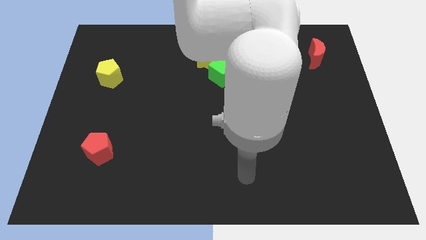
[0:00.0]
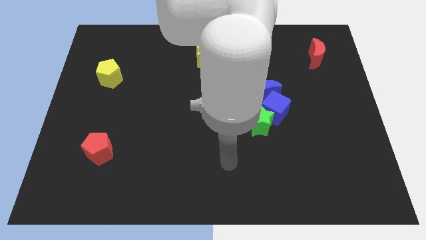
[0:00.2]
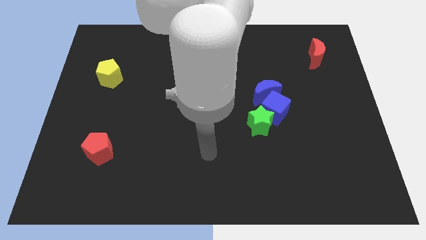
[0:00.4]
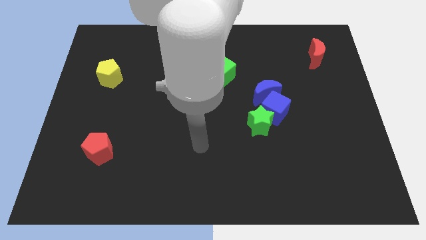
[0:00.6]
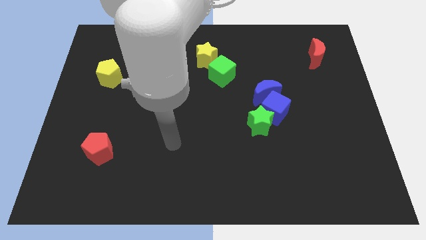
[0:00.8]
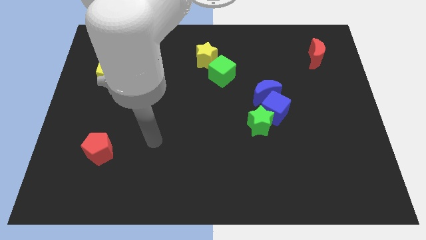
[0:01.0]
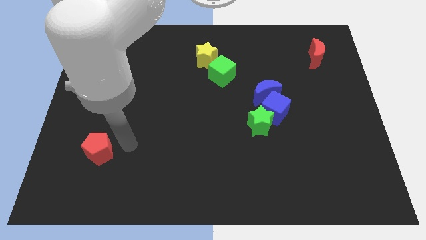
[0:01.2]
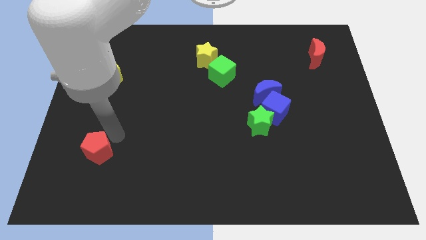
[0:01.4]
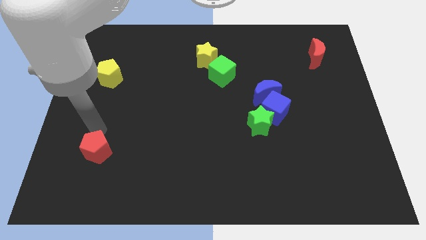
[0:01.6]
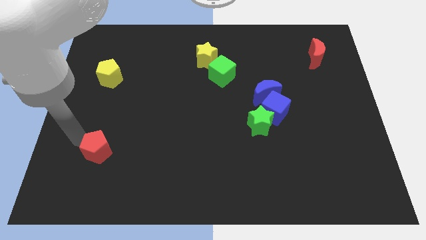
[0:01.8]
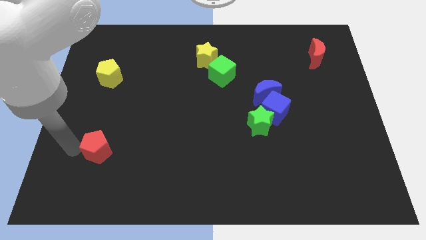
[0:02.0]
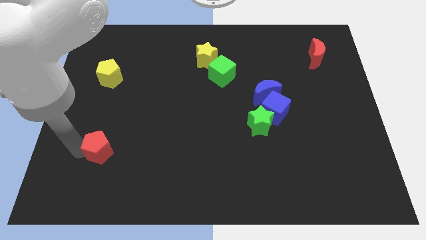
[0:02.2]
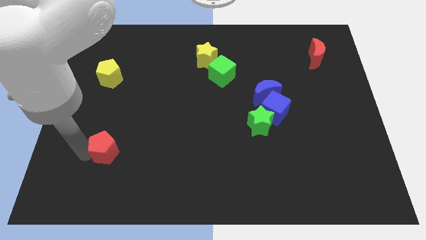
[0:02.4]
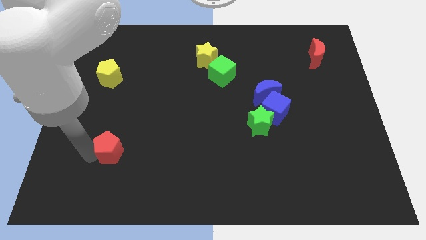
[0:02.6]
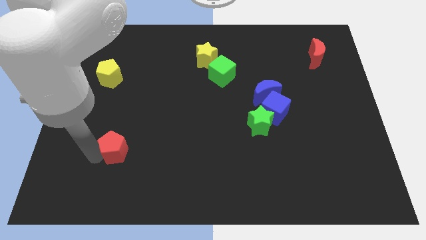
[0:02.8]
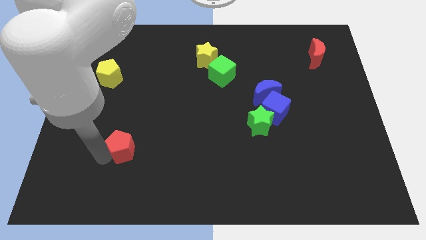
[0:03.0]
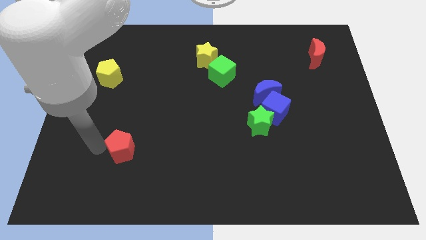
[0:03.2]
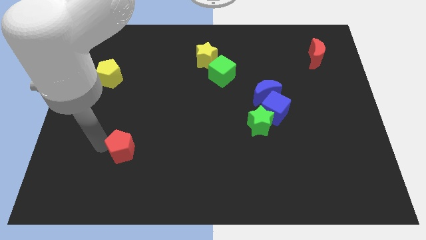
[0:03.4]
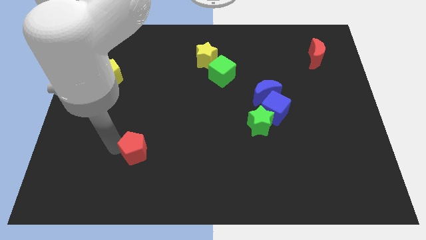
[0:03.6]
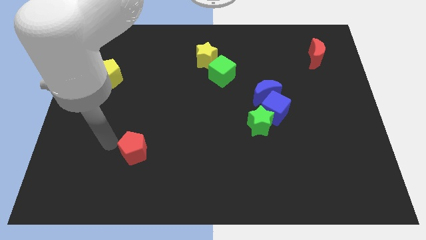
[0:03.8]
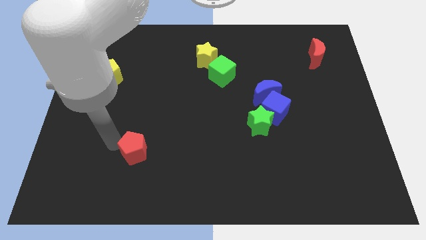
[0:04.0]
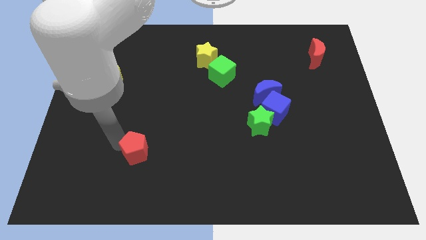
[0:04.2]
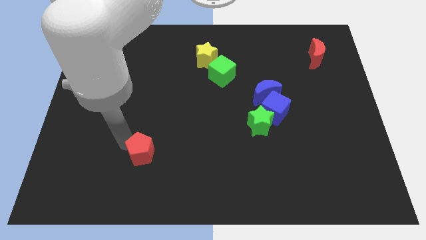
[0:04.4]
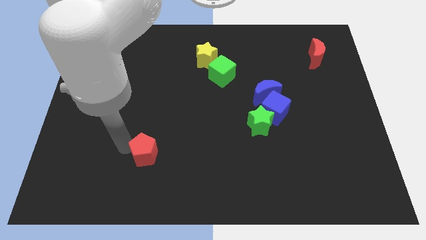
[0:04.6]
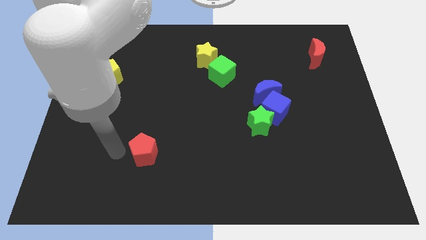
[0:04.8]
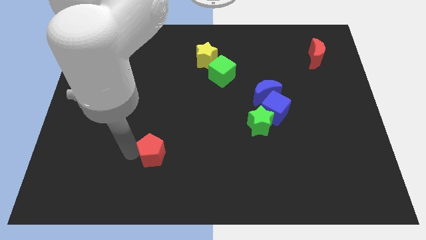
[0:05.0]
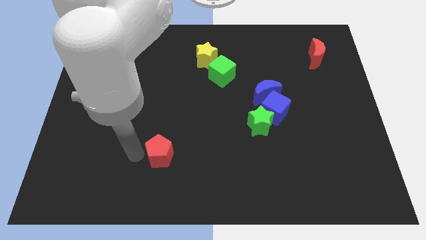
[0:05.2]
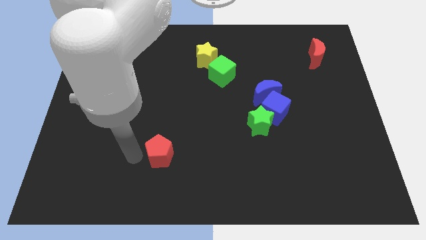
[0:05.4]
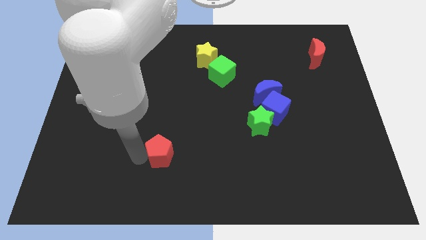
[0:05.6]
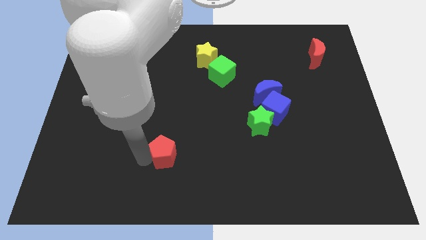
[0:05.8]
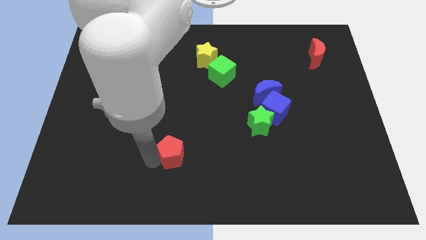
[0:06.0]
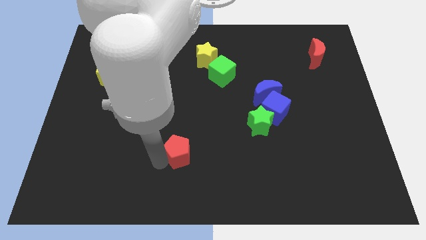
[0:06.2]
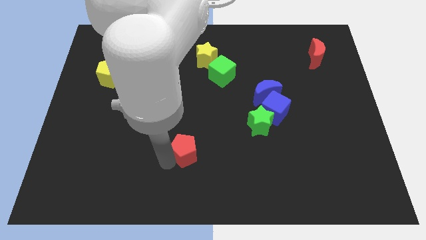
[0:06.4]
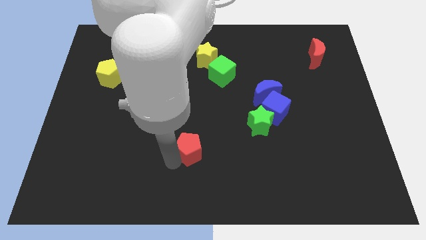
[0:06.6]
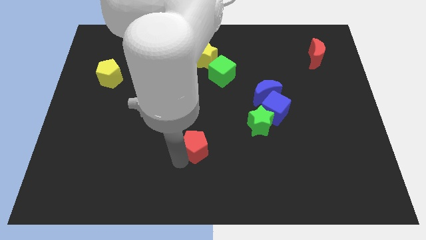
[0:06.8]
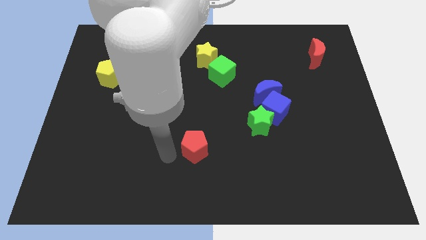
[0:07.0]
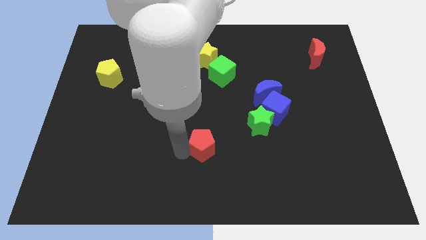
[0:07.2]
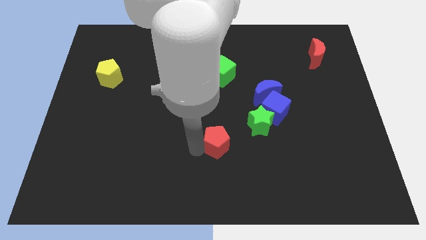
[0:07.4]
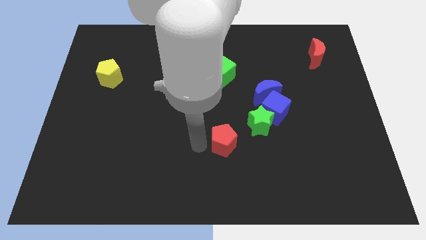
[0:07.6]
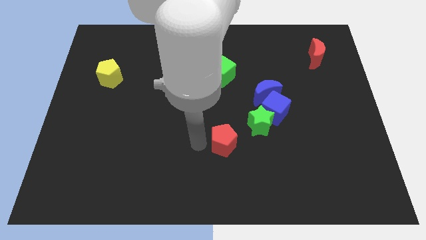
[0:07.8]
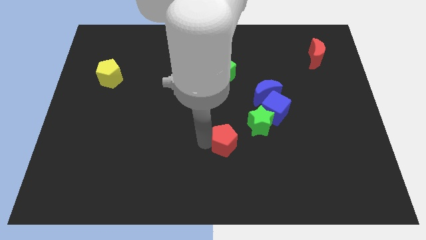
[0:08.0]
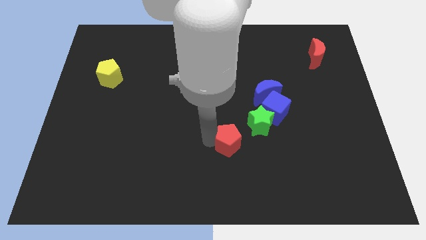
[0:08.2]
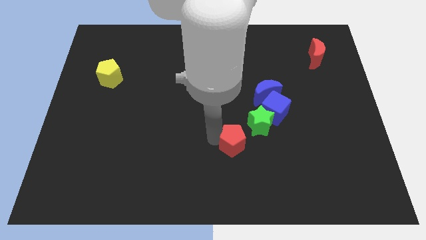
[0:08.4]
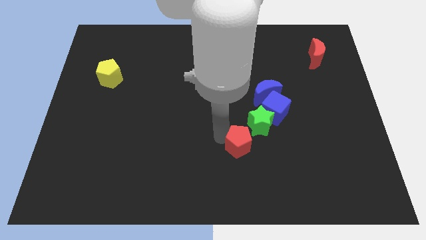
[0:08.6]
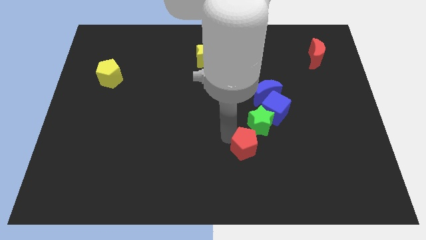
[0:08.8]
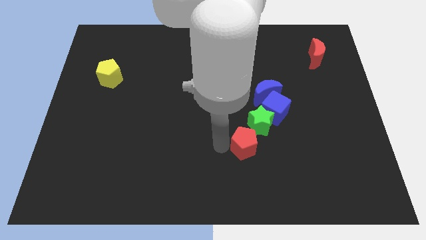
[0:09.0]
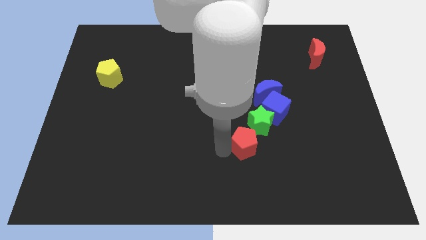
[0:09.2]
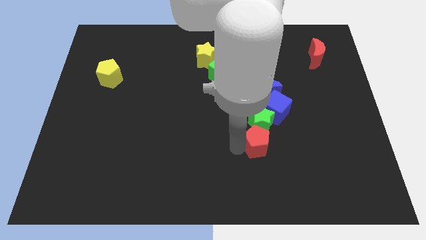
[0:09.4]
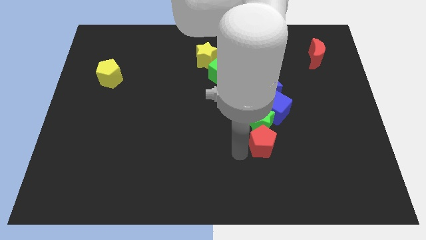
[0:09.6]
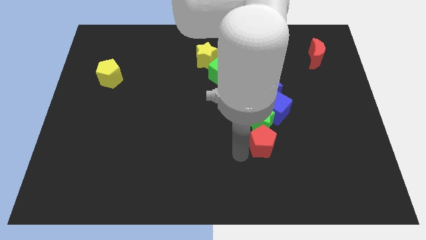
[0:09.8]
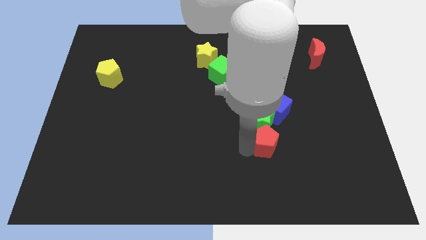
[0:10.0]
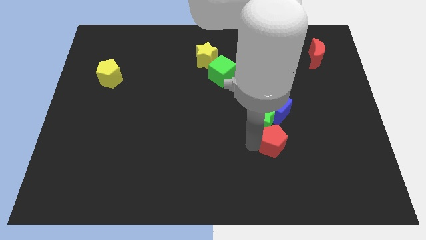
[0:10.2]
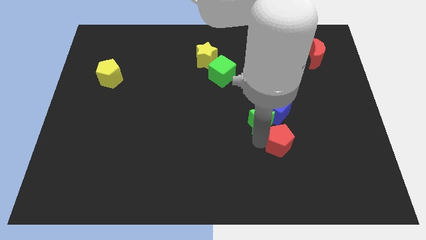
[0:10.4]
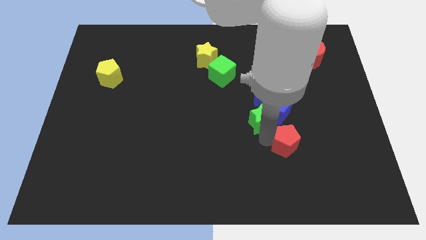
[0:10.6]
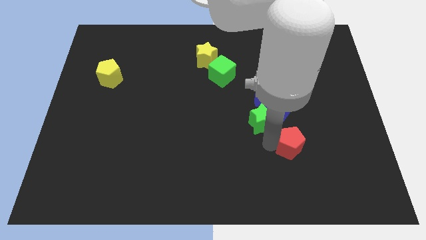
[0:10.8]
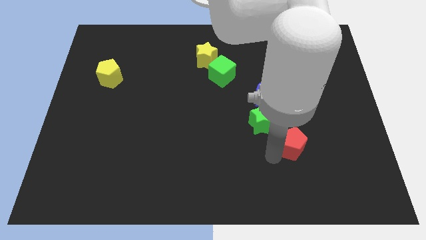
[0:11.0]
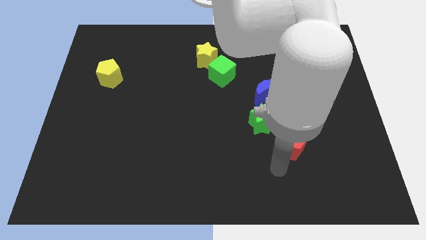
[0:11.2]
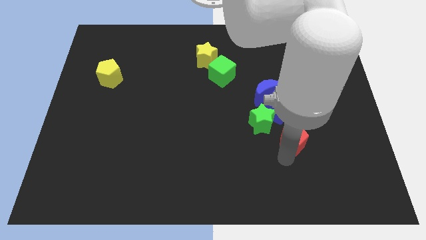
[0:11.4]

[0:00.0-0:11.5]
put the red pentagon to the bottom right of the blue cube

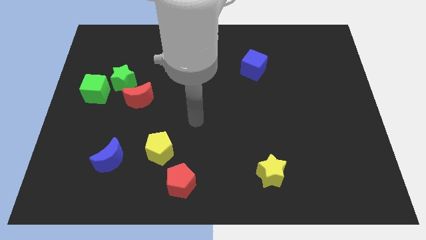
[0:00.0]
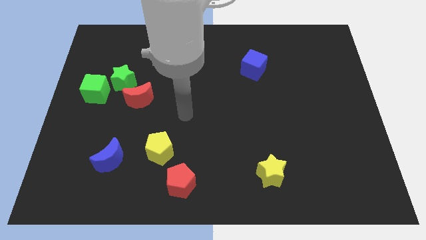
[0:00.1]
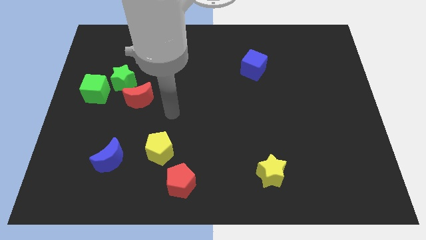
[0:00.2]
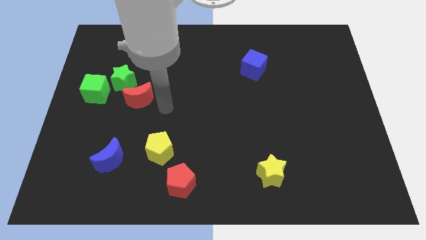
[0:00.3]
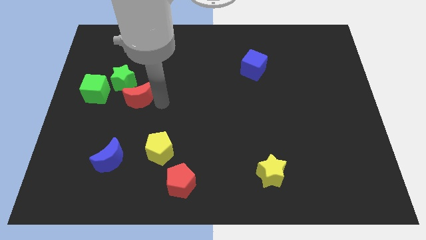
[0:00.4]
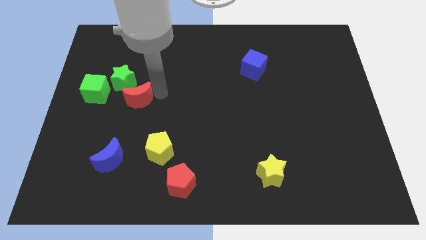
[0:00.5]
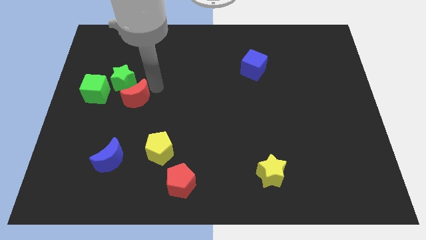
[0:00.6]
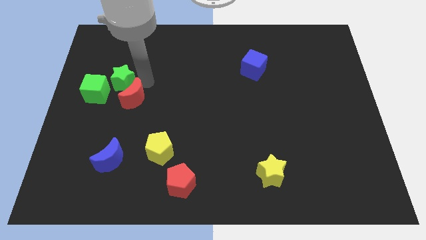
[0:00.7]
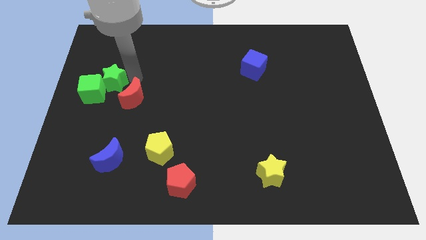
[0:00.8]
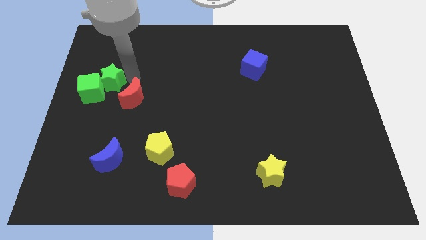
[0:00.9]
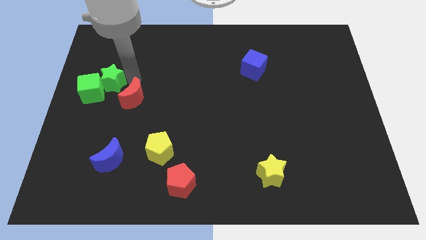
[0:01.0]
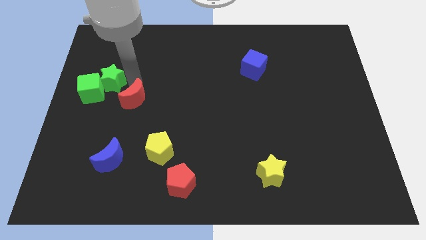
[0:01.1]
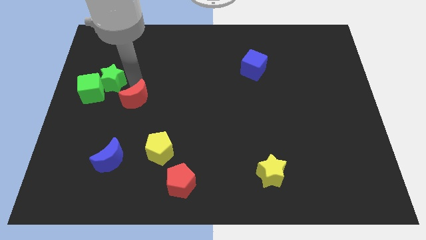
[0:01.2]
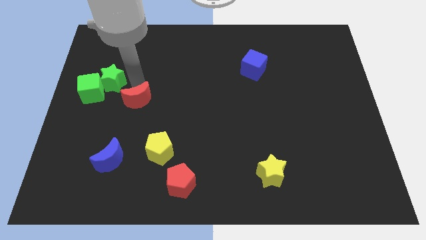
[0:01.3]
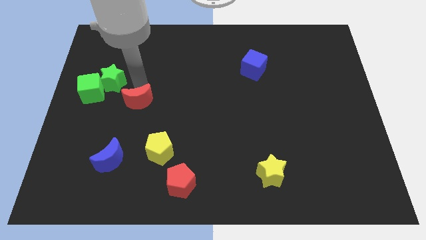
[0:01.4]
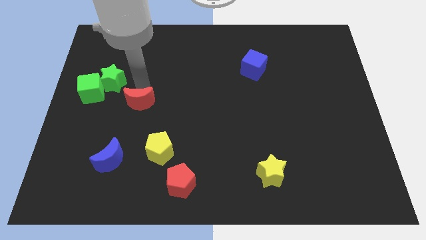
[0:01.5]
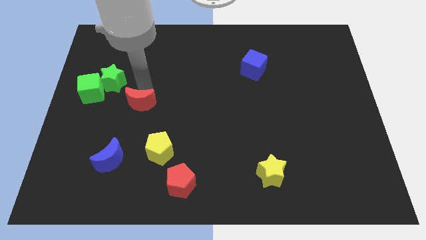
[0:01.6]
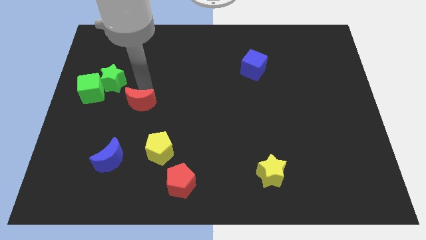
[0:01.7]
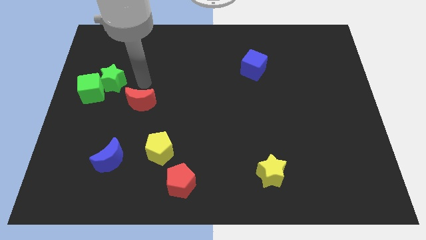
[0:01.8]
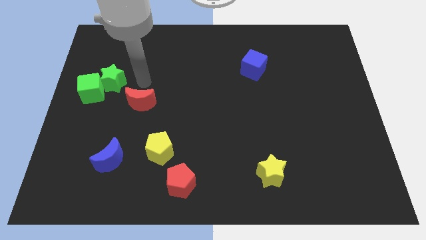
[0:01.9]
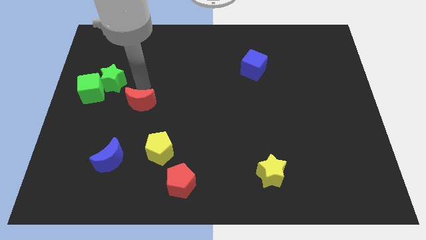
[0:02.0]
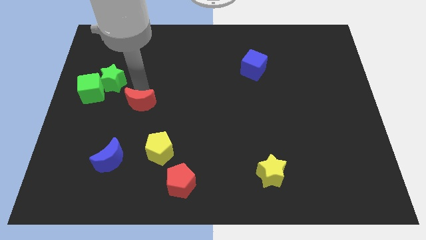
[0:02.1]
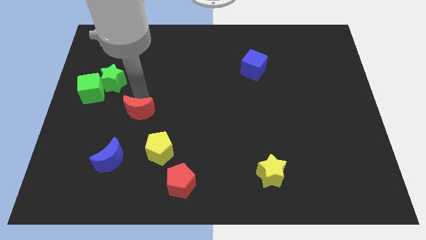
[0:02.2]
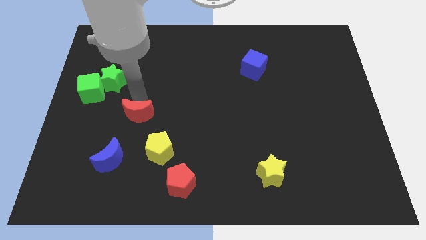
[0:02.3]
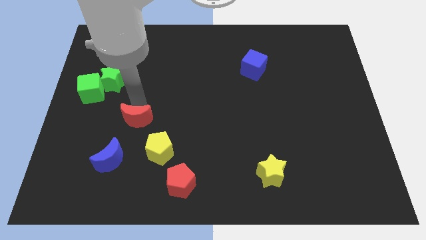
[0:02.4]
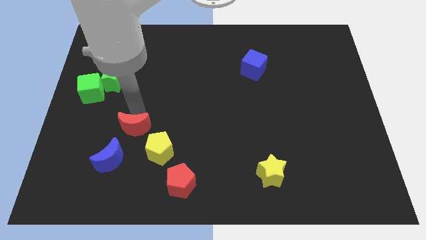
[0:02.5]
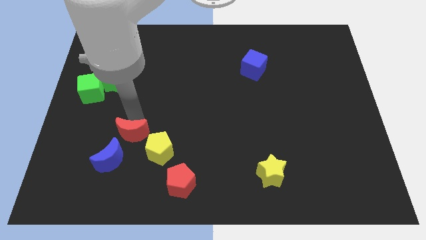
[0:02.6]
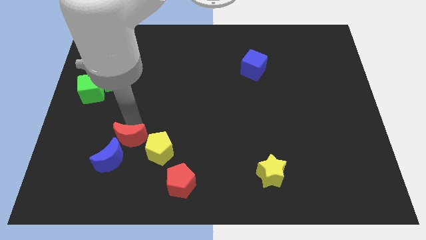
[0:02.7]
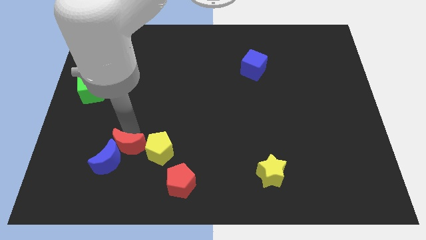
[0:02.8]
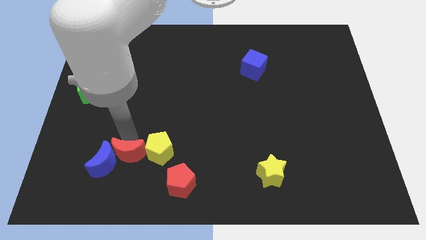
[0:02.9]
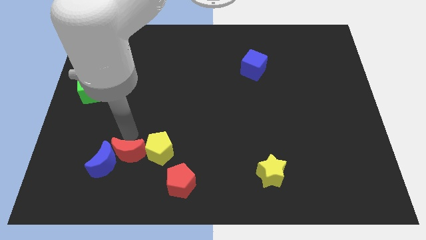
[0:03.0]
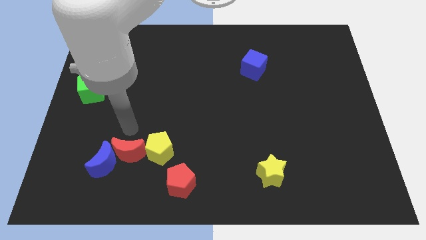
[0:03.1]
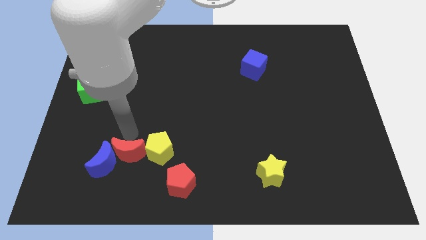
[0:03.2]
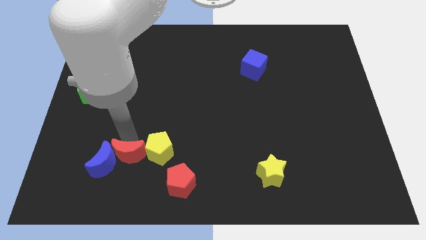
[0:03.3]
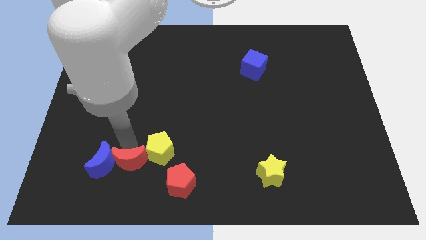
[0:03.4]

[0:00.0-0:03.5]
push the red moon to the left side of the red pentagon
